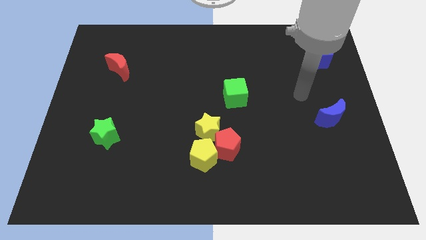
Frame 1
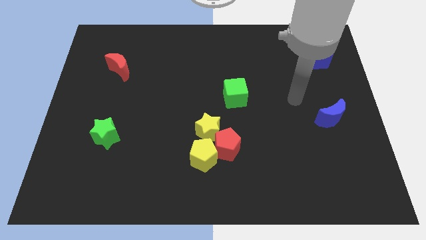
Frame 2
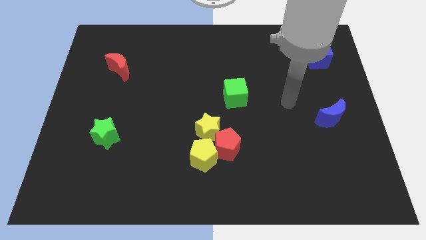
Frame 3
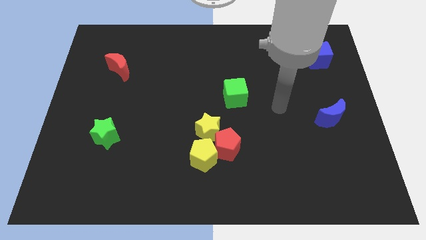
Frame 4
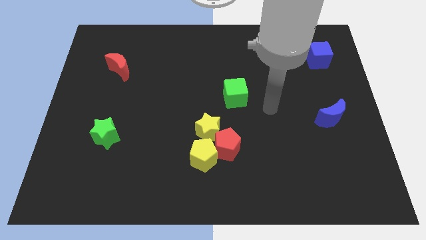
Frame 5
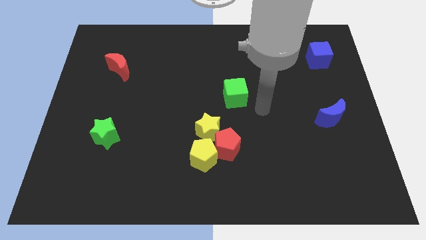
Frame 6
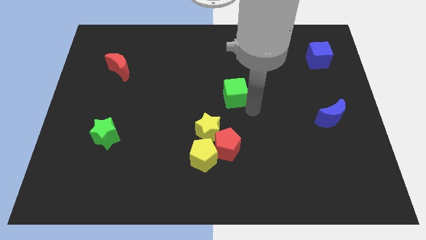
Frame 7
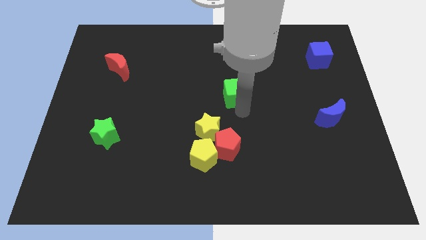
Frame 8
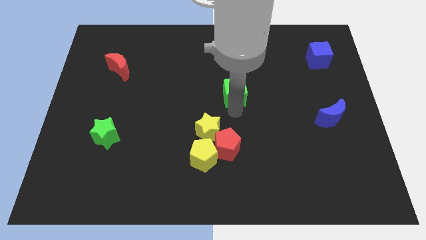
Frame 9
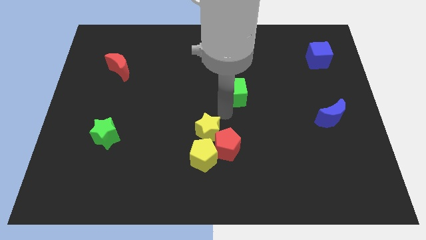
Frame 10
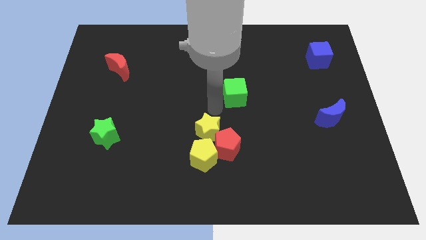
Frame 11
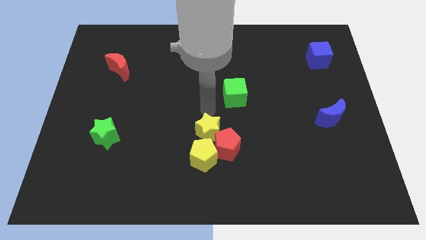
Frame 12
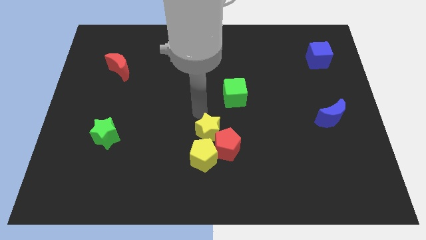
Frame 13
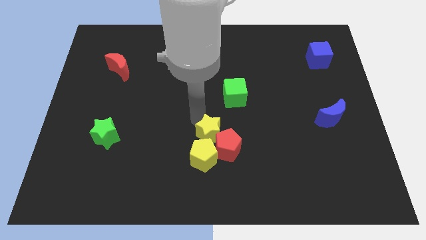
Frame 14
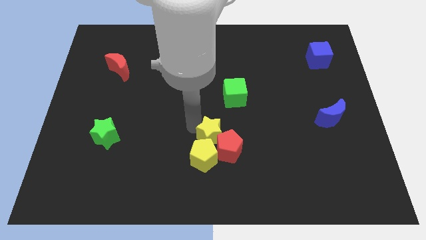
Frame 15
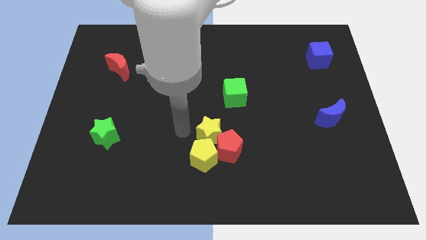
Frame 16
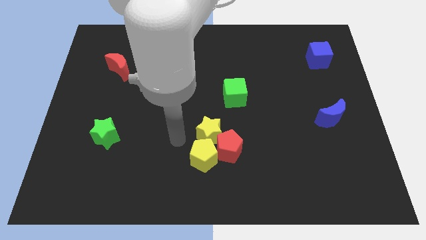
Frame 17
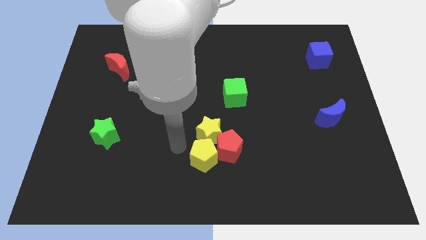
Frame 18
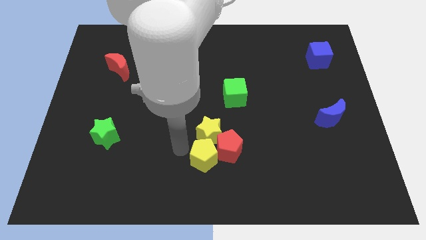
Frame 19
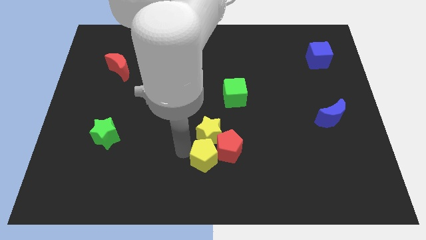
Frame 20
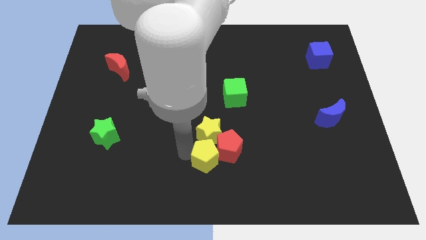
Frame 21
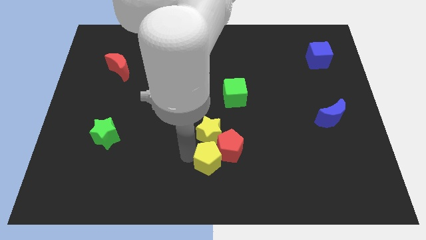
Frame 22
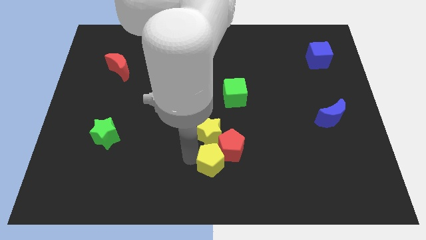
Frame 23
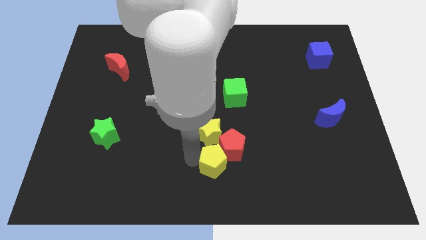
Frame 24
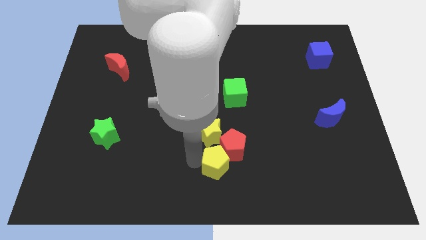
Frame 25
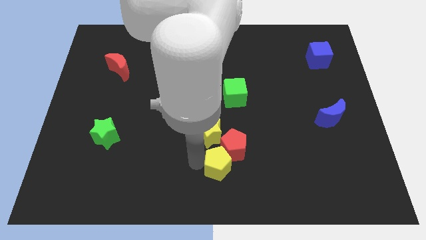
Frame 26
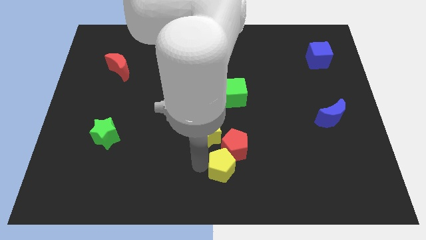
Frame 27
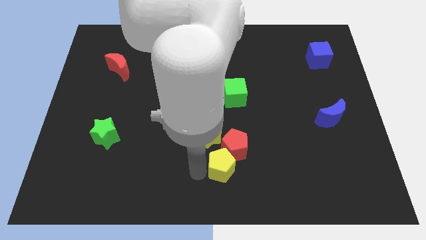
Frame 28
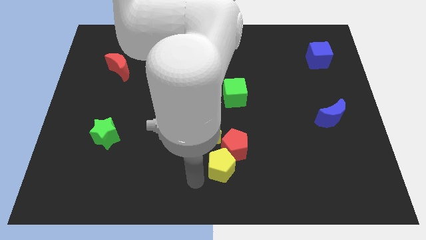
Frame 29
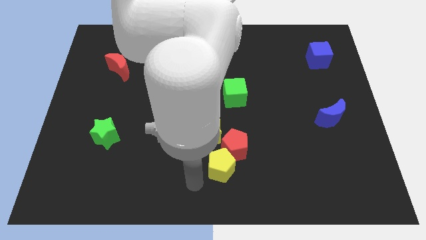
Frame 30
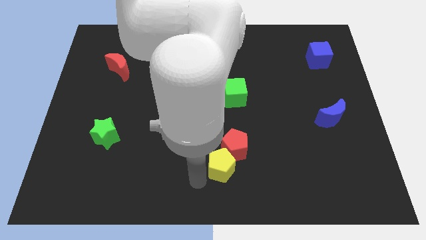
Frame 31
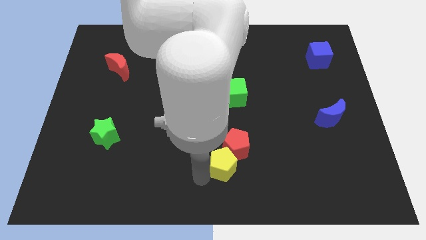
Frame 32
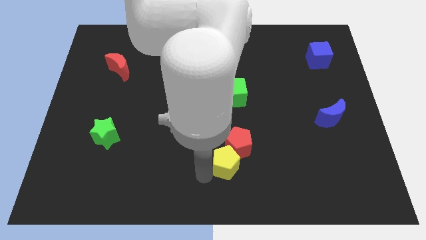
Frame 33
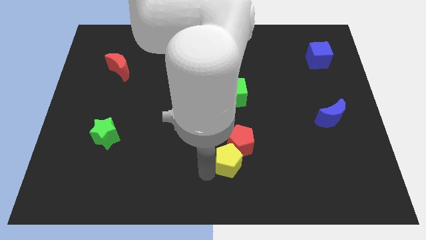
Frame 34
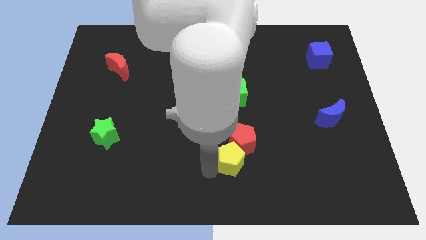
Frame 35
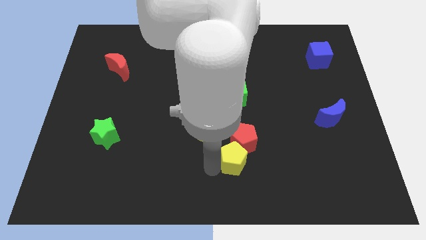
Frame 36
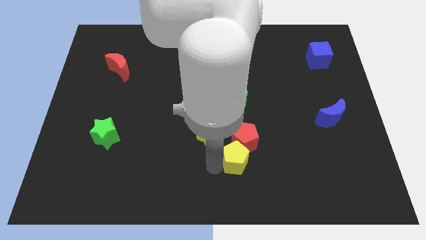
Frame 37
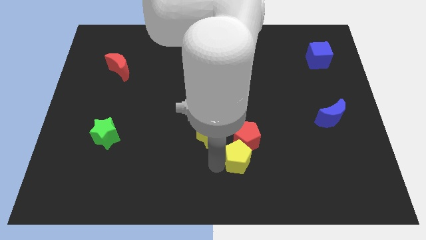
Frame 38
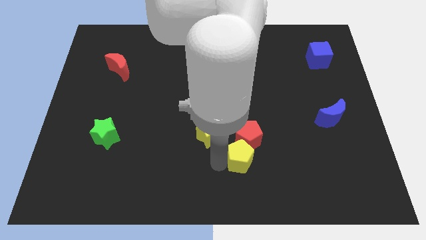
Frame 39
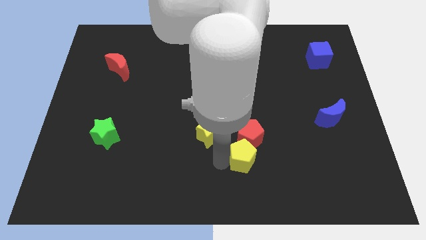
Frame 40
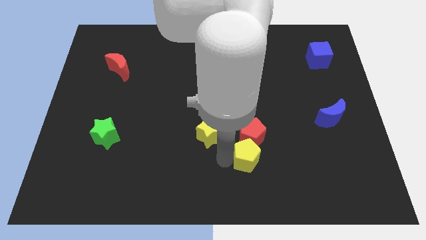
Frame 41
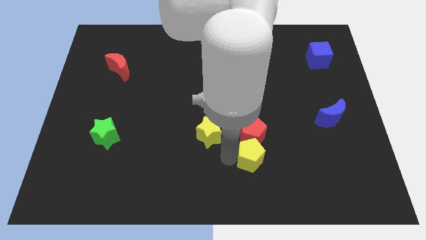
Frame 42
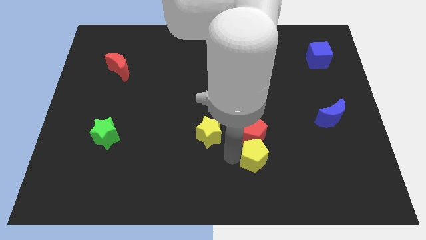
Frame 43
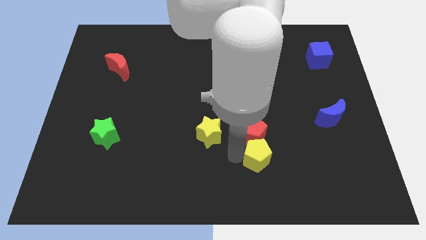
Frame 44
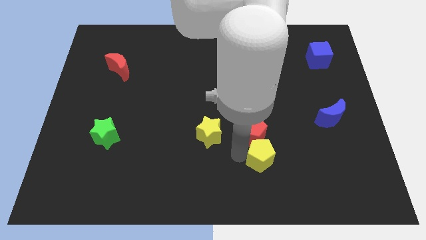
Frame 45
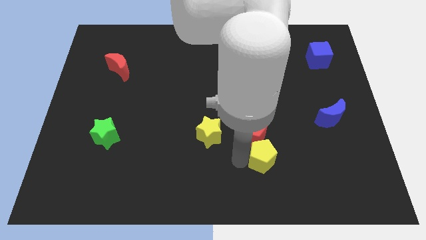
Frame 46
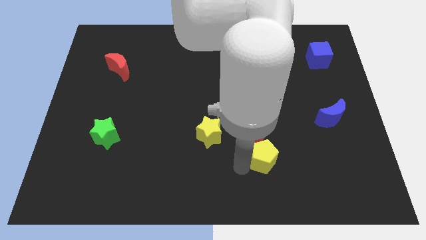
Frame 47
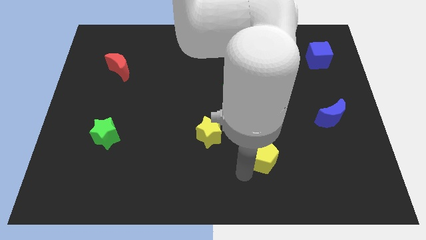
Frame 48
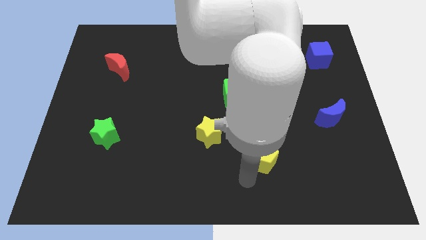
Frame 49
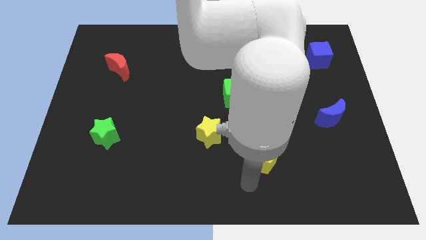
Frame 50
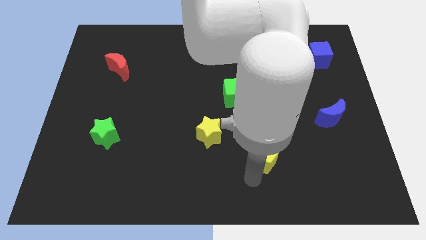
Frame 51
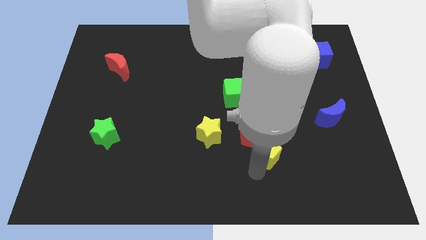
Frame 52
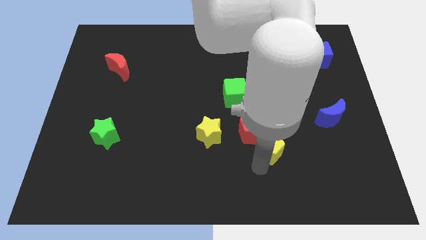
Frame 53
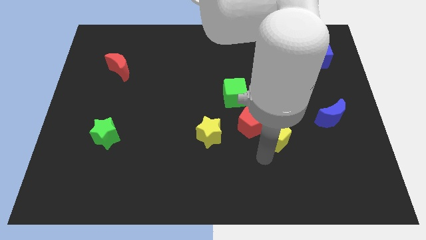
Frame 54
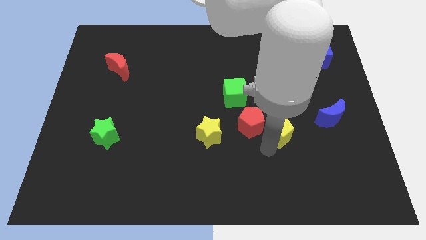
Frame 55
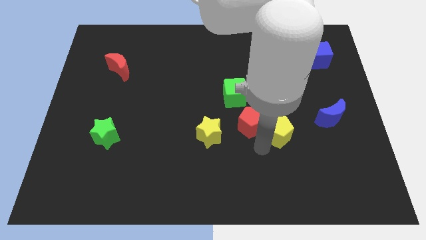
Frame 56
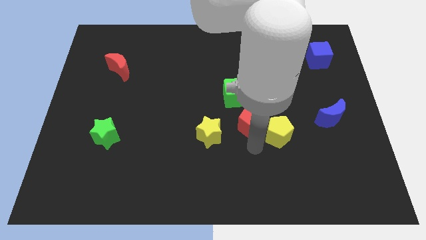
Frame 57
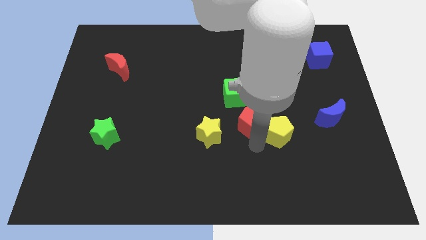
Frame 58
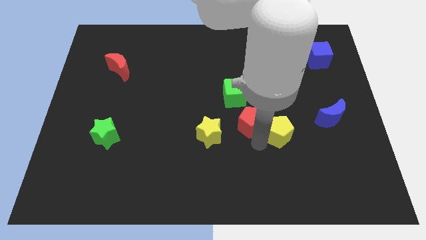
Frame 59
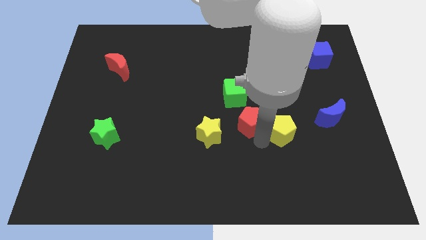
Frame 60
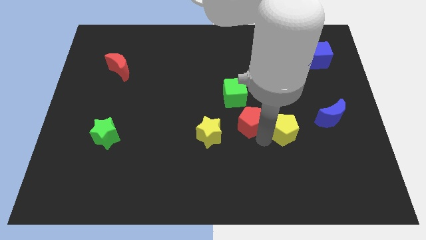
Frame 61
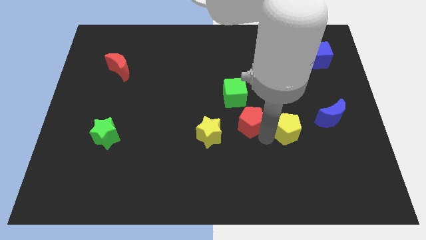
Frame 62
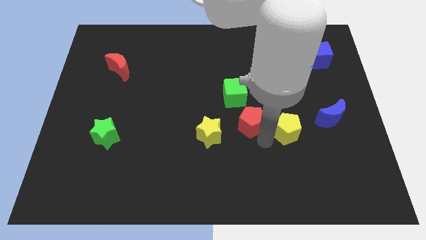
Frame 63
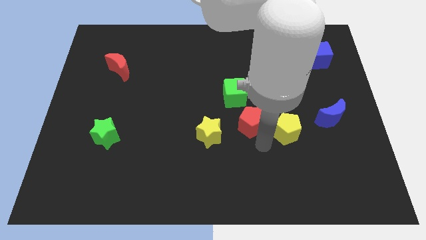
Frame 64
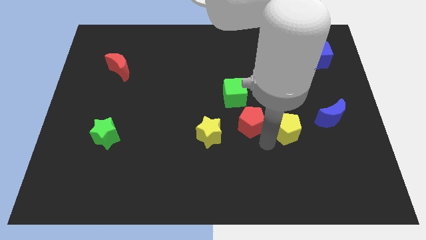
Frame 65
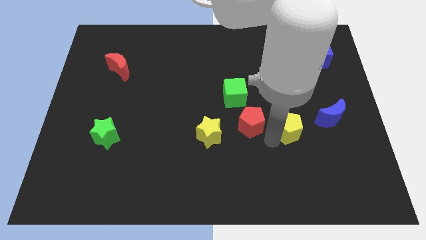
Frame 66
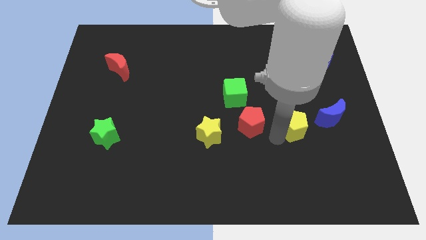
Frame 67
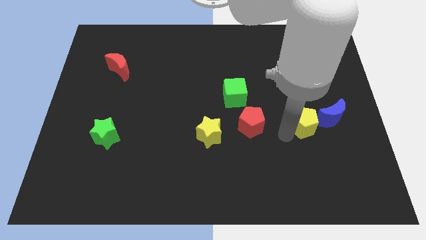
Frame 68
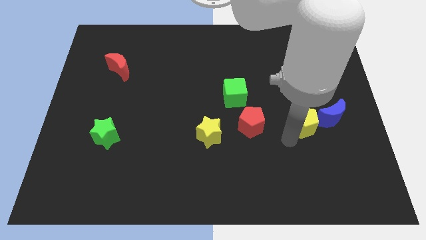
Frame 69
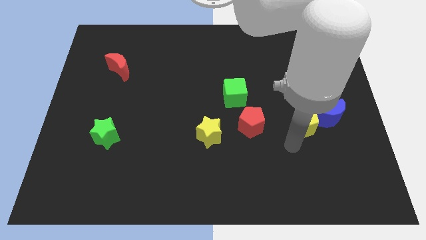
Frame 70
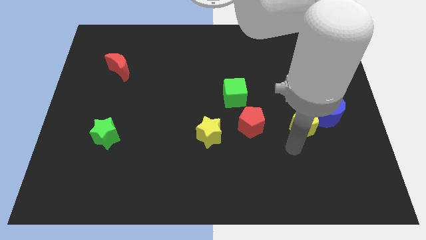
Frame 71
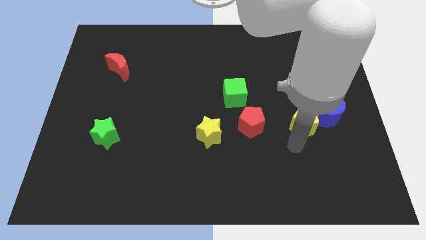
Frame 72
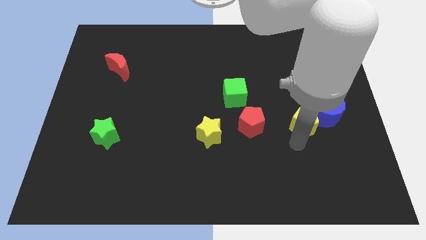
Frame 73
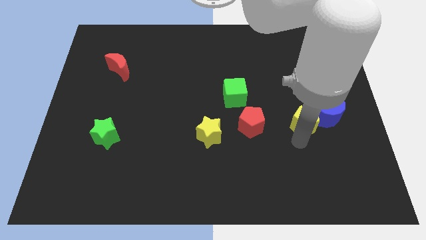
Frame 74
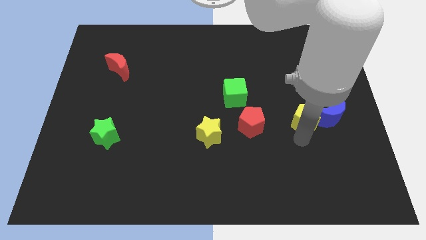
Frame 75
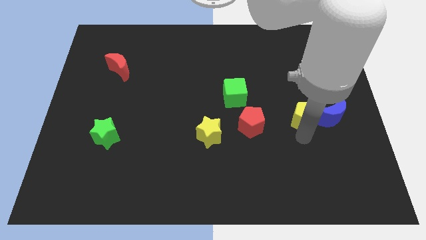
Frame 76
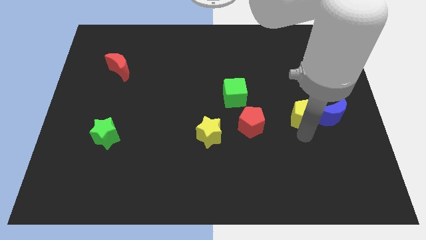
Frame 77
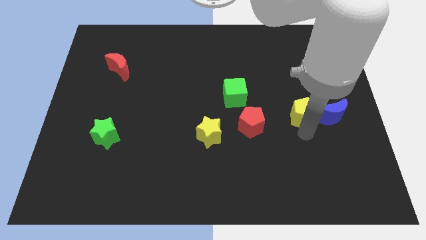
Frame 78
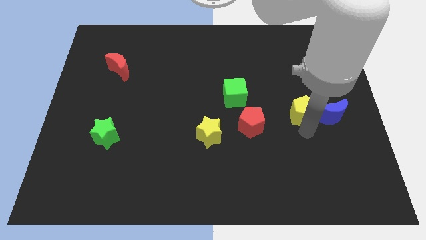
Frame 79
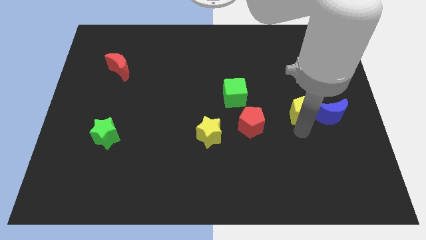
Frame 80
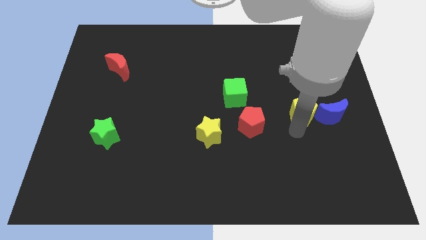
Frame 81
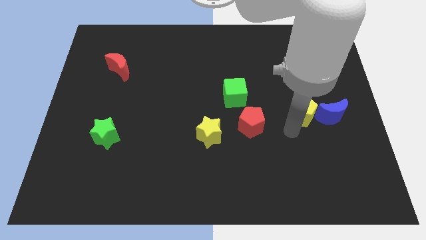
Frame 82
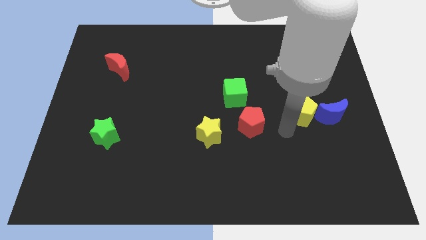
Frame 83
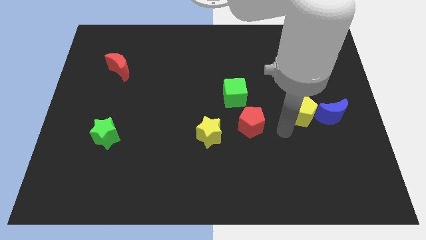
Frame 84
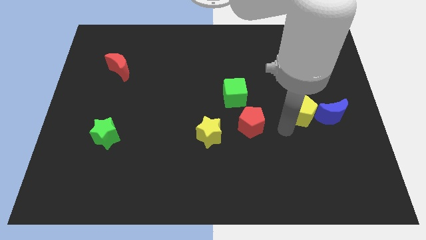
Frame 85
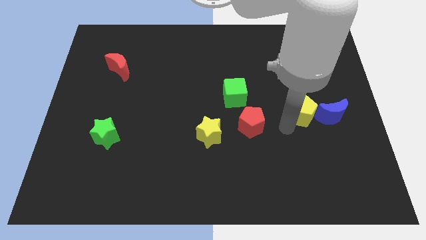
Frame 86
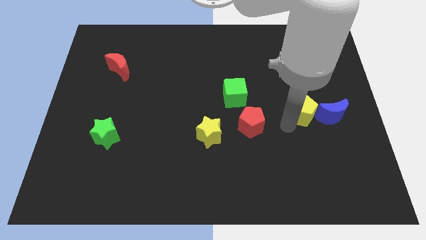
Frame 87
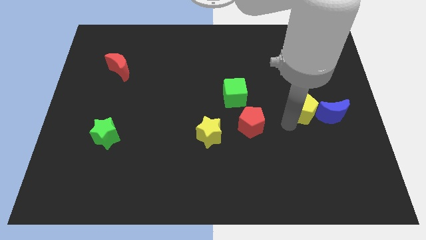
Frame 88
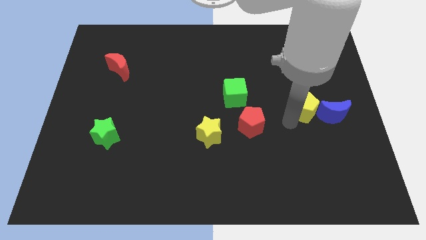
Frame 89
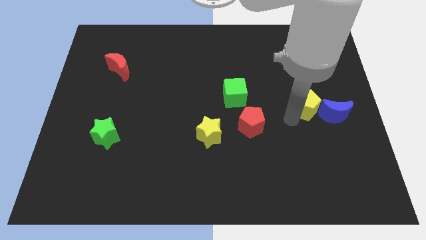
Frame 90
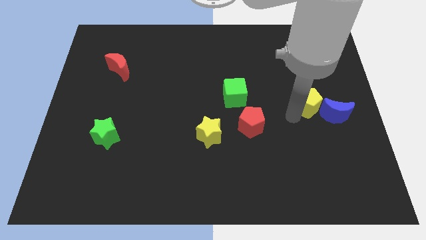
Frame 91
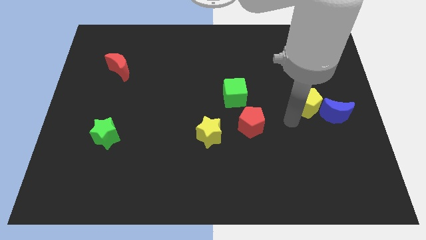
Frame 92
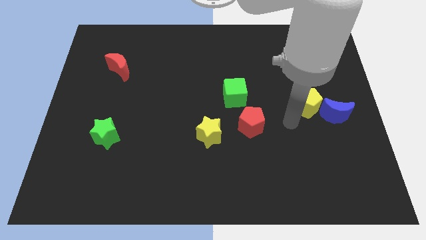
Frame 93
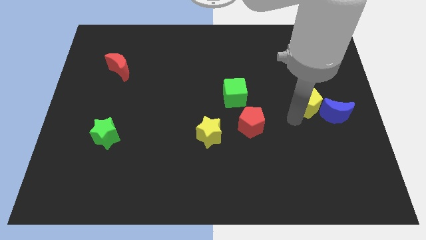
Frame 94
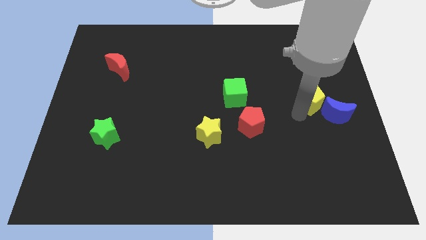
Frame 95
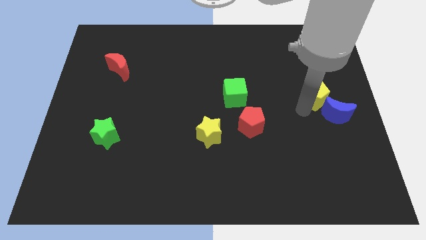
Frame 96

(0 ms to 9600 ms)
slide the yellow pentagon to the bottom of the blue cube
